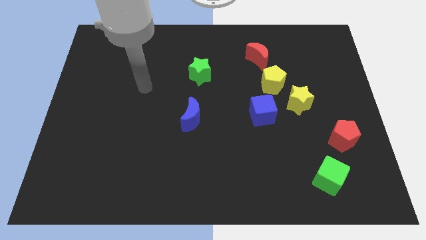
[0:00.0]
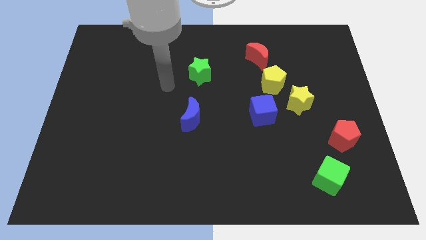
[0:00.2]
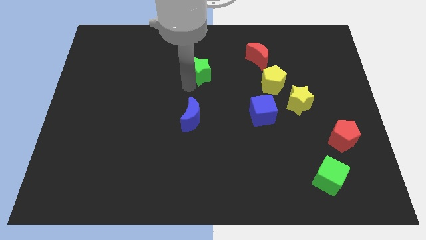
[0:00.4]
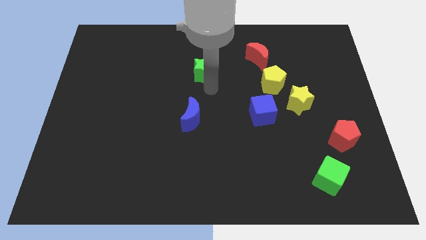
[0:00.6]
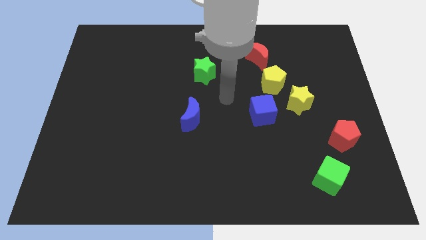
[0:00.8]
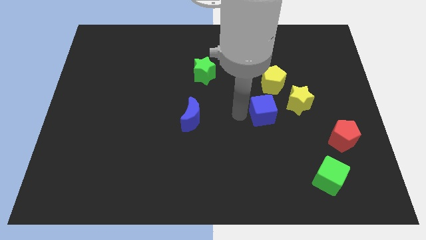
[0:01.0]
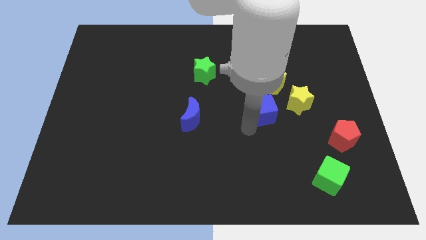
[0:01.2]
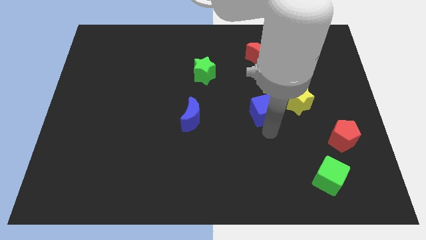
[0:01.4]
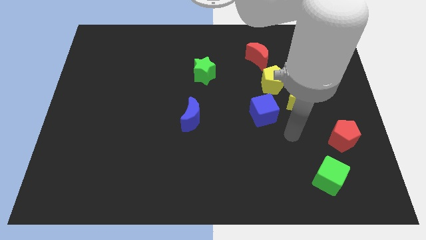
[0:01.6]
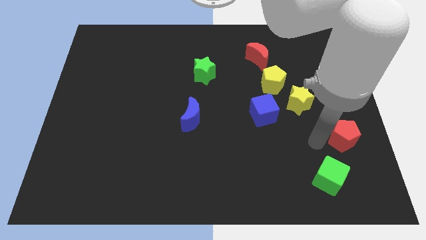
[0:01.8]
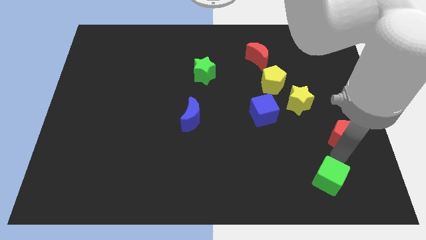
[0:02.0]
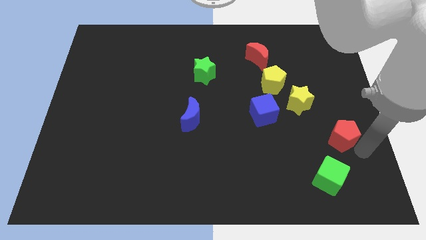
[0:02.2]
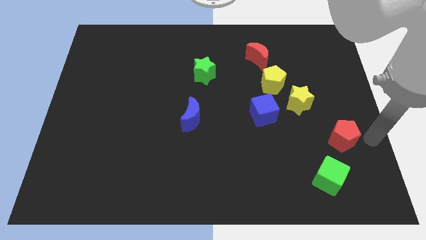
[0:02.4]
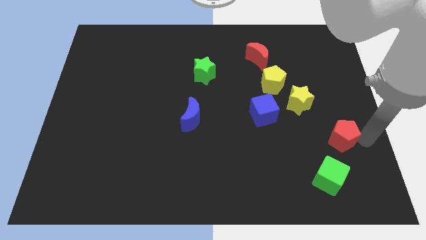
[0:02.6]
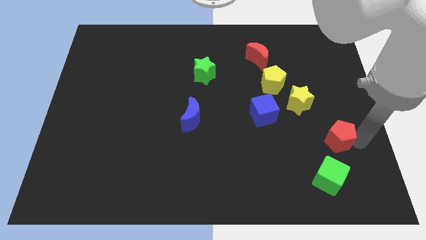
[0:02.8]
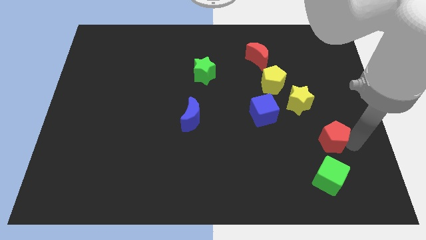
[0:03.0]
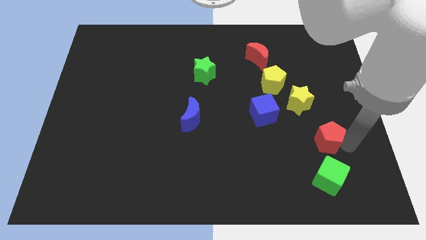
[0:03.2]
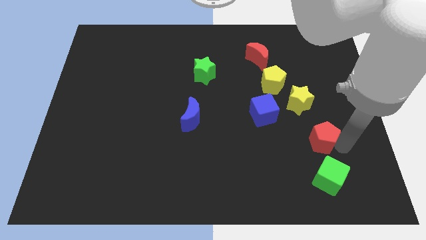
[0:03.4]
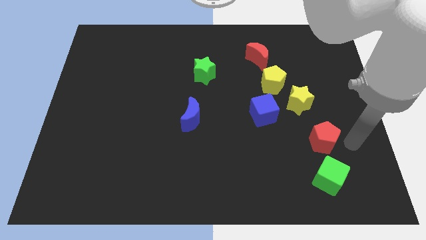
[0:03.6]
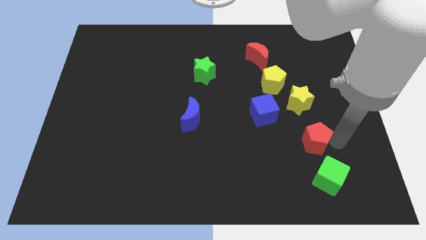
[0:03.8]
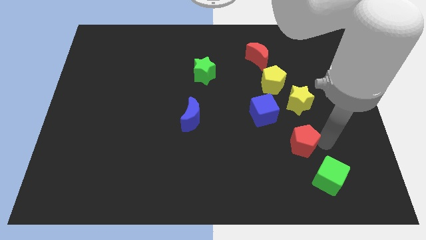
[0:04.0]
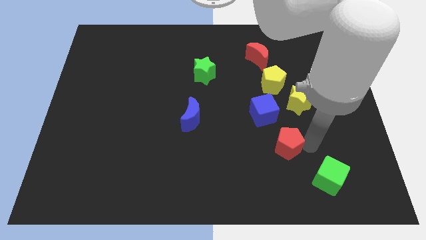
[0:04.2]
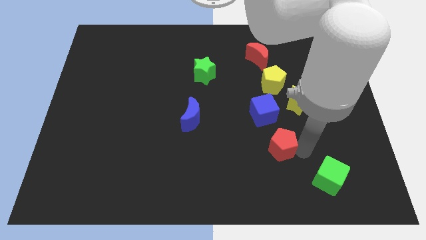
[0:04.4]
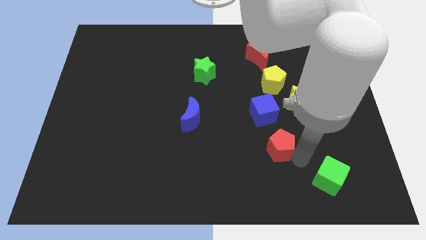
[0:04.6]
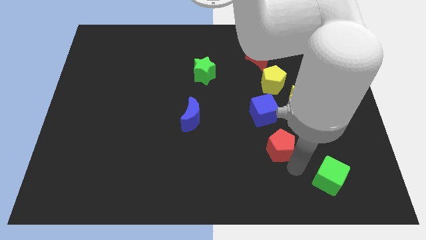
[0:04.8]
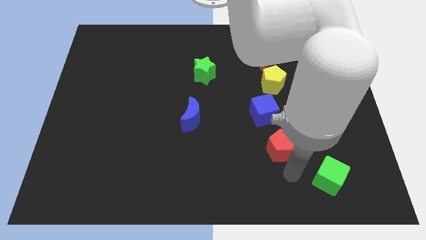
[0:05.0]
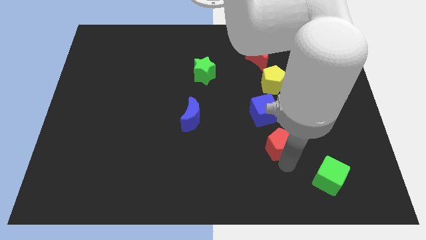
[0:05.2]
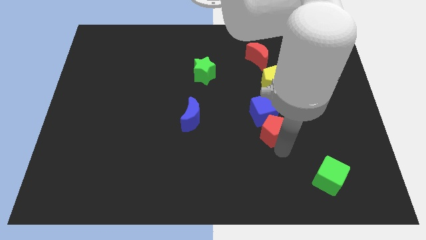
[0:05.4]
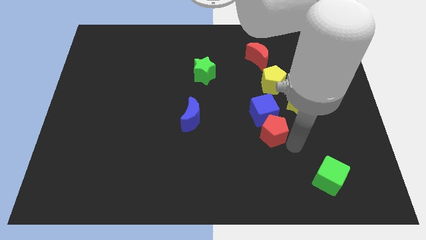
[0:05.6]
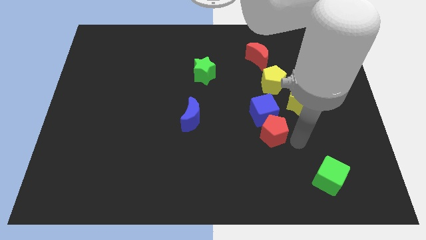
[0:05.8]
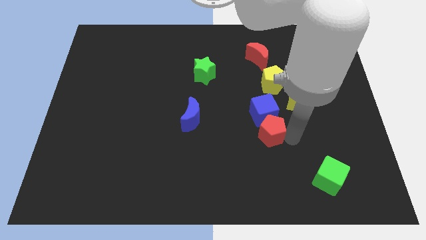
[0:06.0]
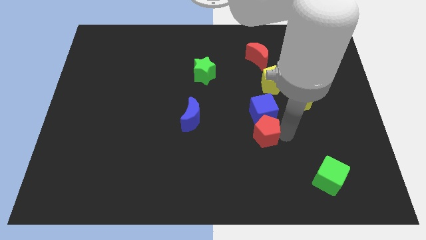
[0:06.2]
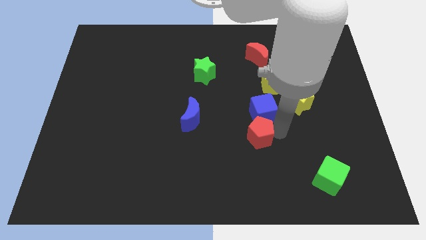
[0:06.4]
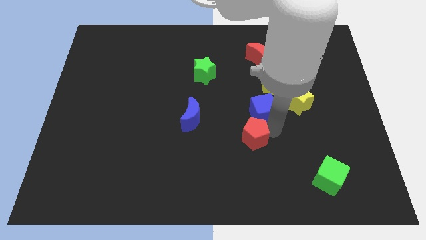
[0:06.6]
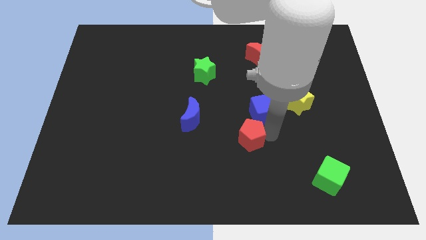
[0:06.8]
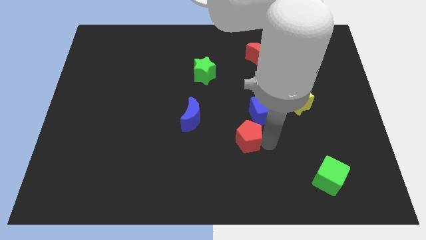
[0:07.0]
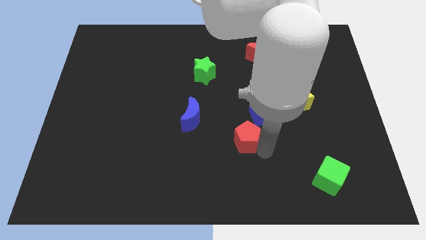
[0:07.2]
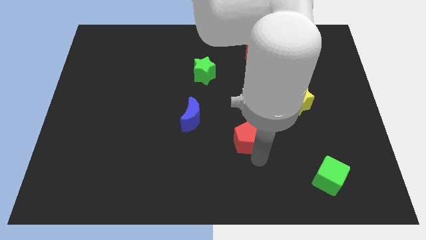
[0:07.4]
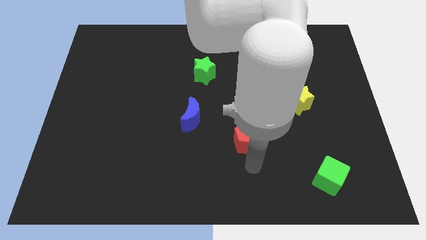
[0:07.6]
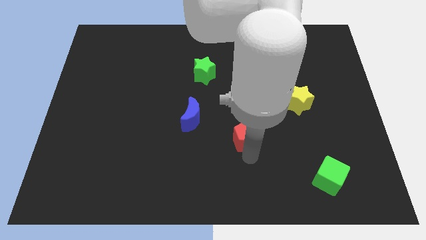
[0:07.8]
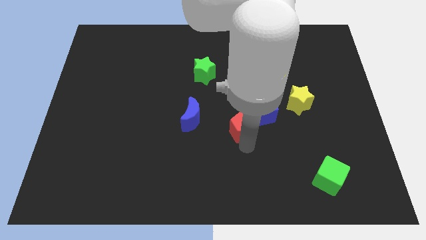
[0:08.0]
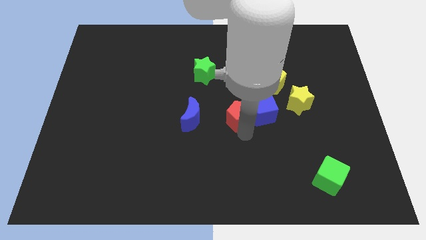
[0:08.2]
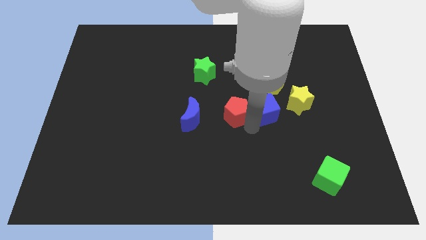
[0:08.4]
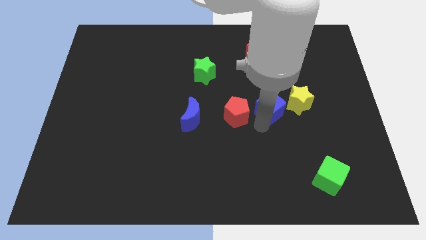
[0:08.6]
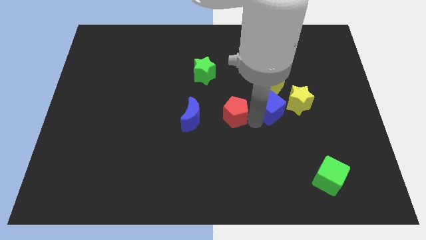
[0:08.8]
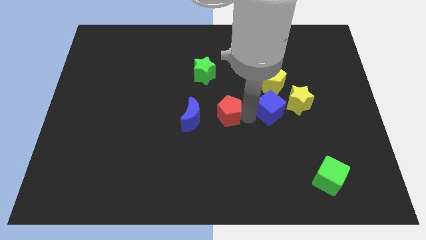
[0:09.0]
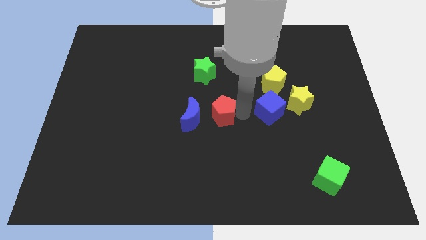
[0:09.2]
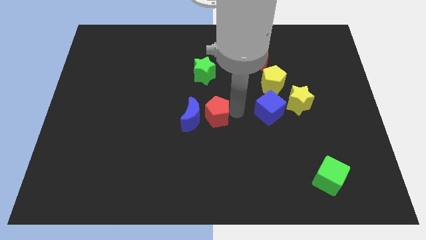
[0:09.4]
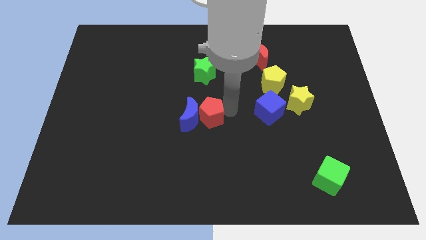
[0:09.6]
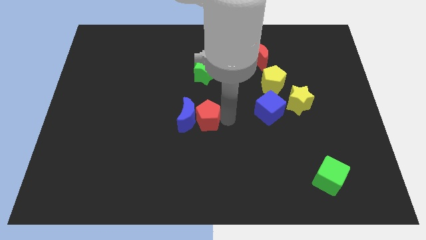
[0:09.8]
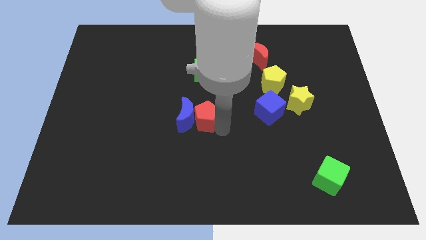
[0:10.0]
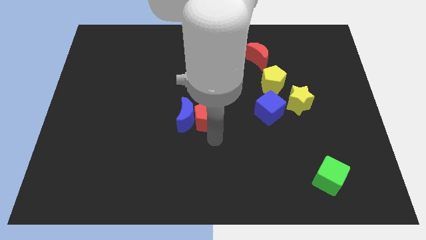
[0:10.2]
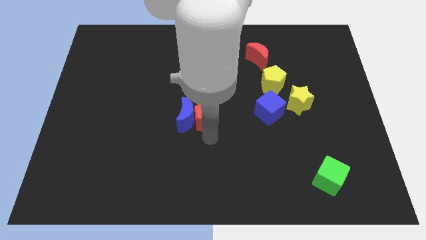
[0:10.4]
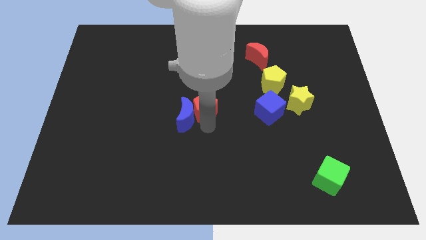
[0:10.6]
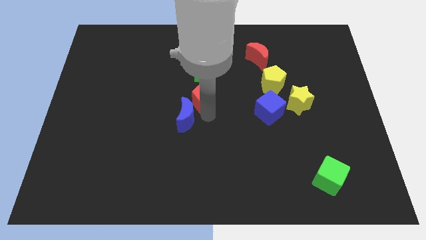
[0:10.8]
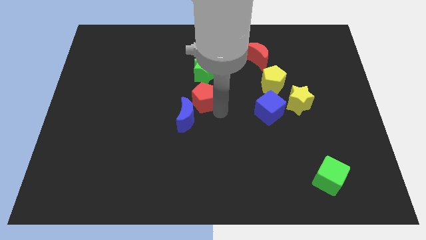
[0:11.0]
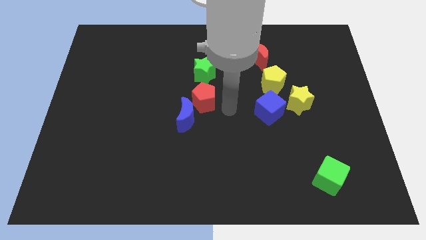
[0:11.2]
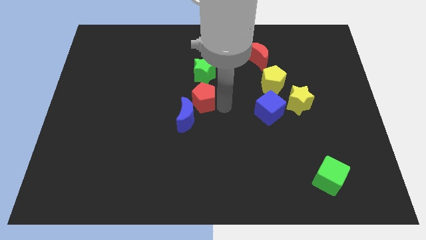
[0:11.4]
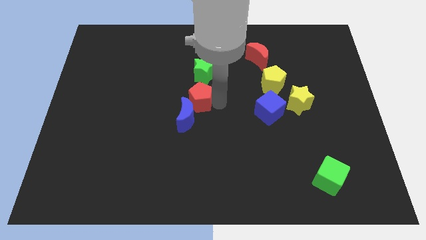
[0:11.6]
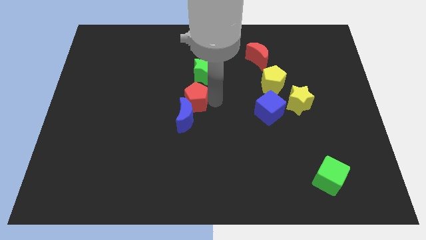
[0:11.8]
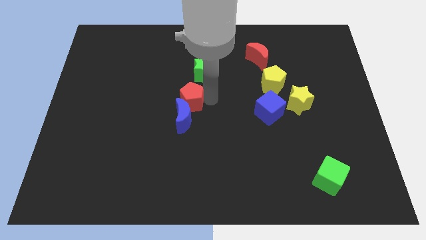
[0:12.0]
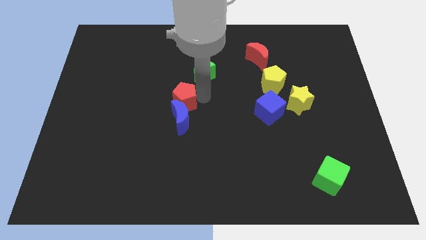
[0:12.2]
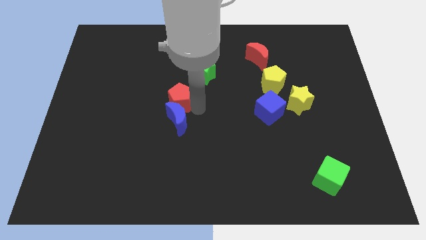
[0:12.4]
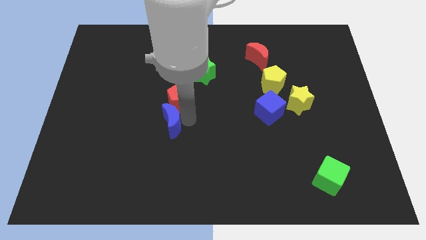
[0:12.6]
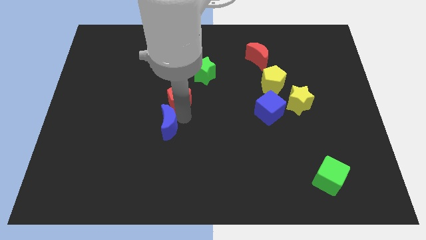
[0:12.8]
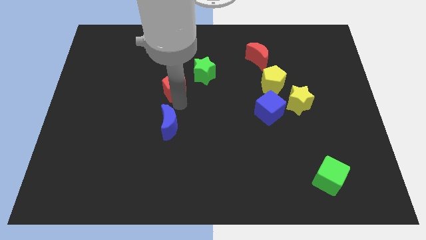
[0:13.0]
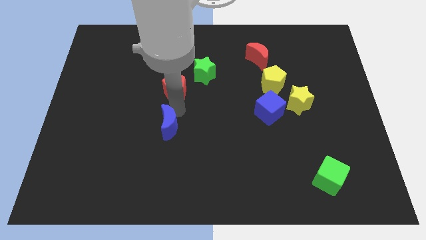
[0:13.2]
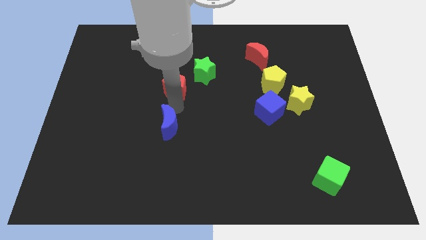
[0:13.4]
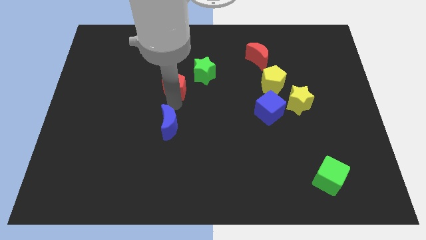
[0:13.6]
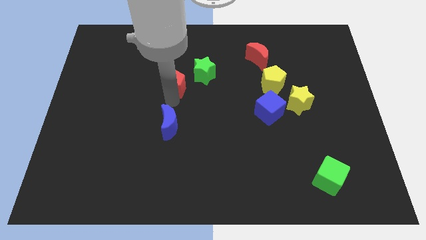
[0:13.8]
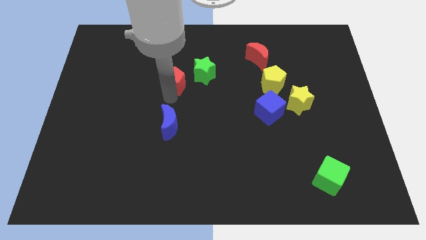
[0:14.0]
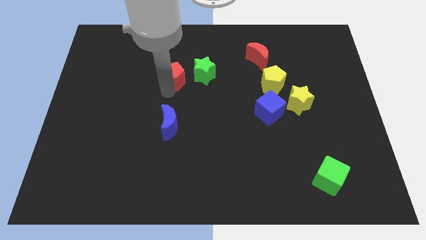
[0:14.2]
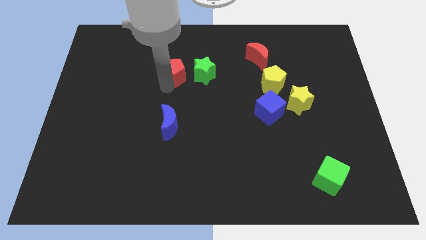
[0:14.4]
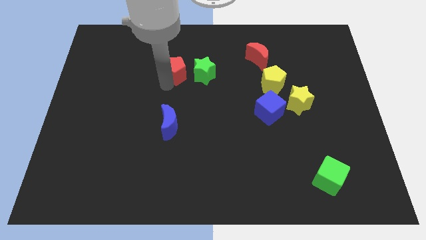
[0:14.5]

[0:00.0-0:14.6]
slide the red pentagon to the top left of the green star
